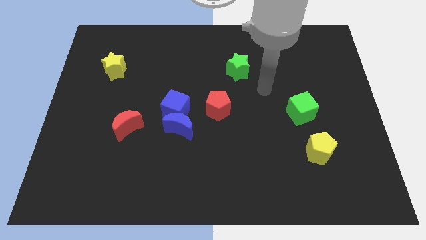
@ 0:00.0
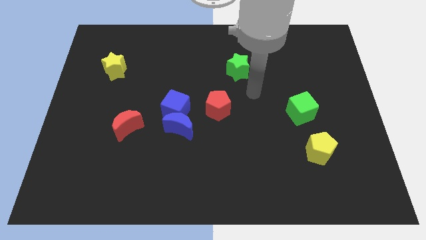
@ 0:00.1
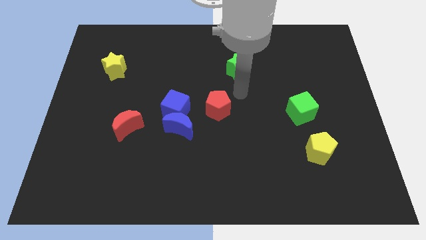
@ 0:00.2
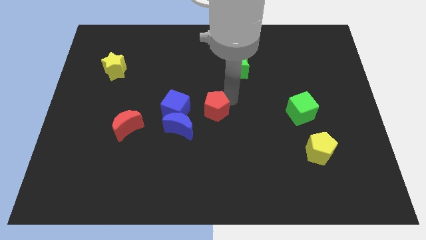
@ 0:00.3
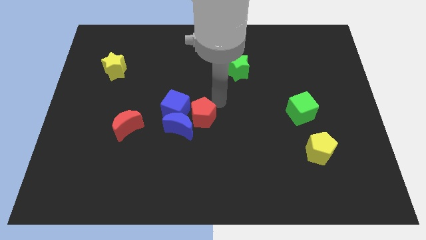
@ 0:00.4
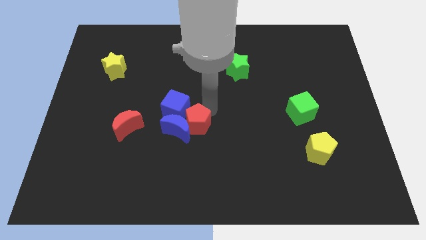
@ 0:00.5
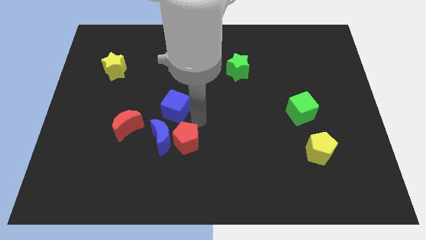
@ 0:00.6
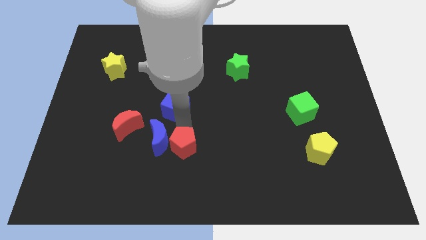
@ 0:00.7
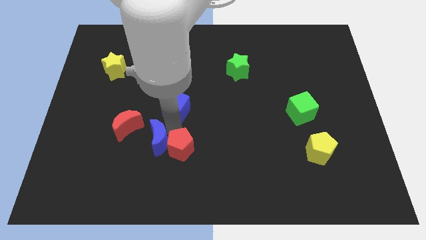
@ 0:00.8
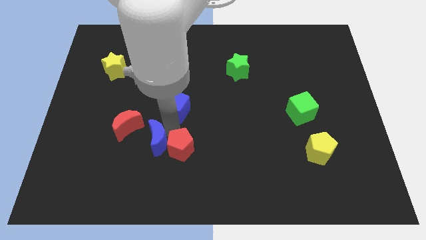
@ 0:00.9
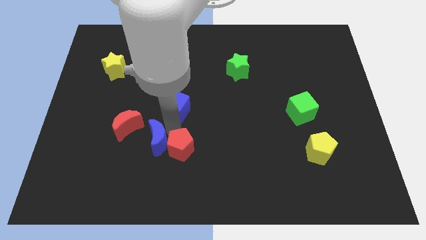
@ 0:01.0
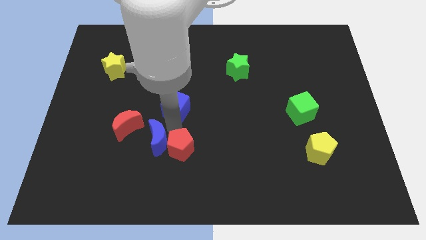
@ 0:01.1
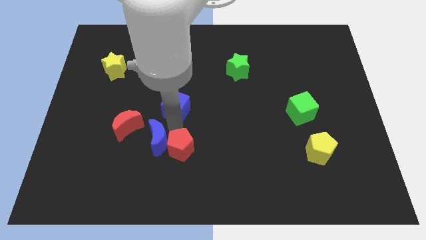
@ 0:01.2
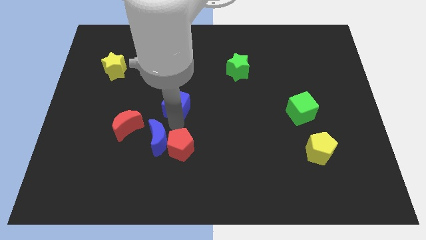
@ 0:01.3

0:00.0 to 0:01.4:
pull the blue cube apart from the blue moon and red pentagon

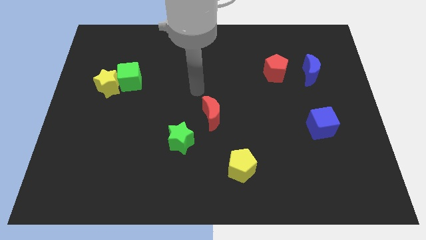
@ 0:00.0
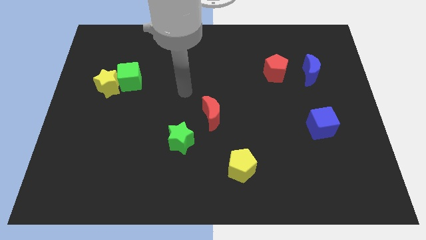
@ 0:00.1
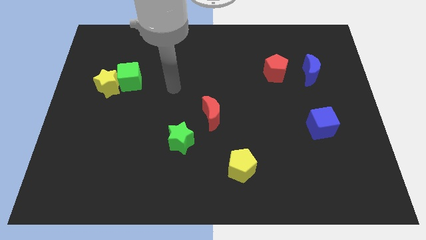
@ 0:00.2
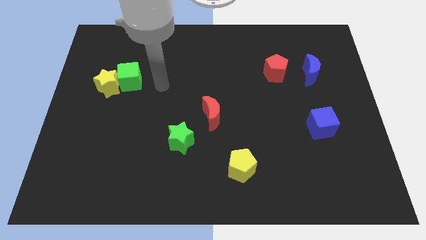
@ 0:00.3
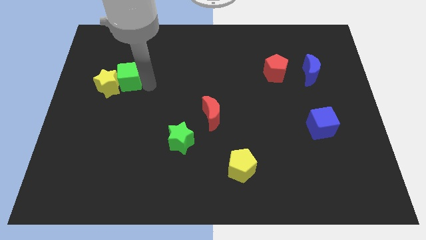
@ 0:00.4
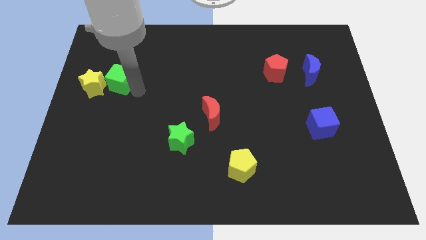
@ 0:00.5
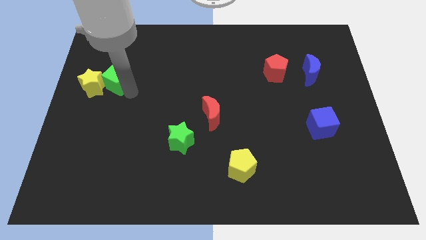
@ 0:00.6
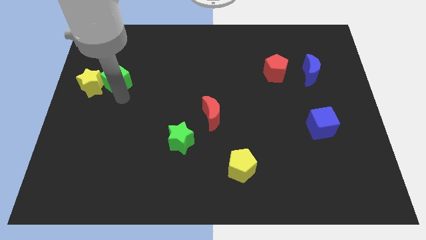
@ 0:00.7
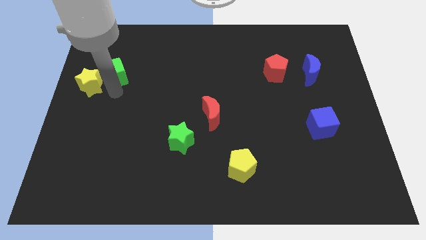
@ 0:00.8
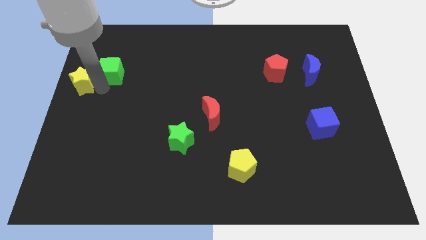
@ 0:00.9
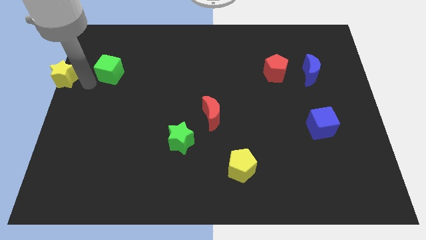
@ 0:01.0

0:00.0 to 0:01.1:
separate the green cube from the yellow star

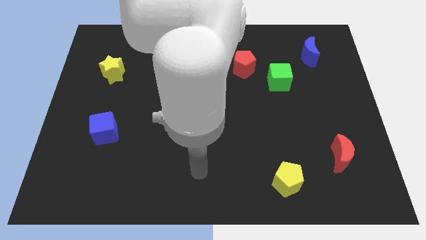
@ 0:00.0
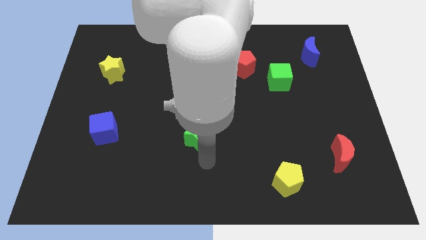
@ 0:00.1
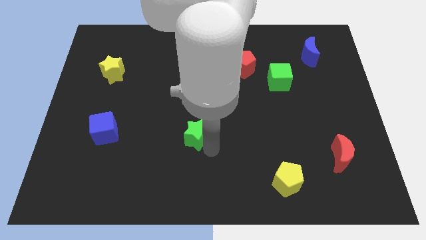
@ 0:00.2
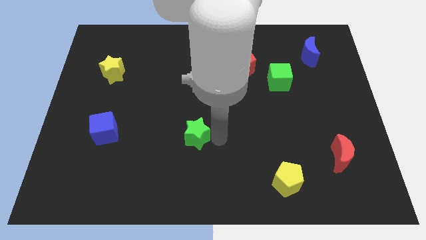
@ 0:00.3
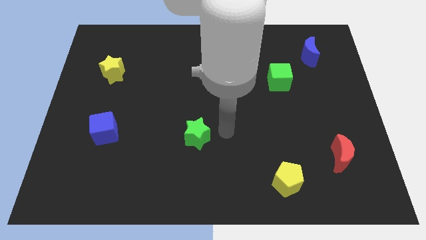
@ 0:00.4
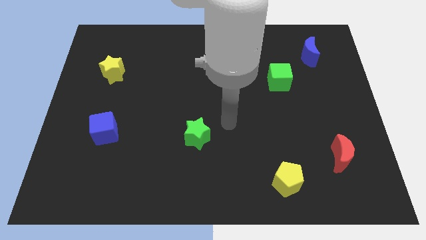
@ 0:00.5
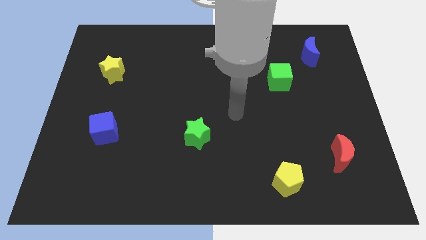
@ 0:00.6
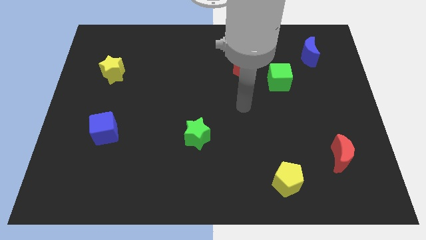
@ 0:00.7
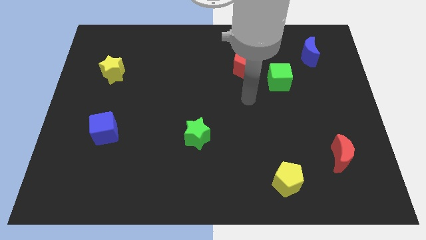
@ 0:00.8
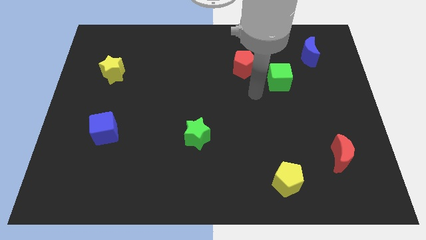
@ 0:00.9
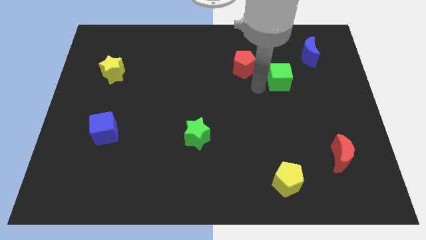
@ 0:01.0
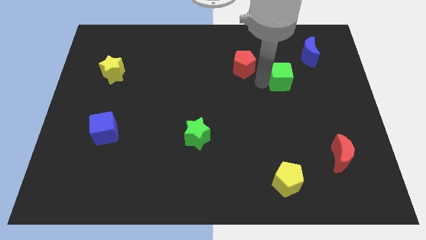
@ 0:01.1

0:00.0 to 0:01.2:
separate the red pentagon from the green cube

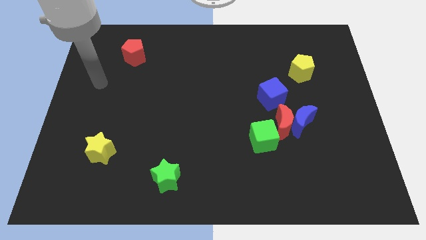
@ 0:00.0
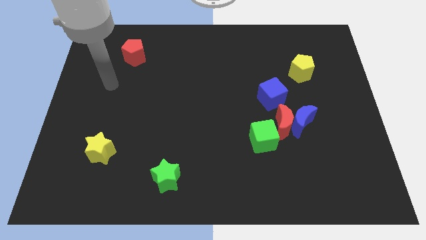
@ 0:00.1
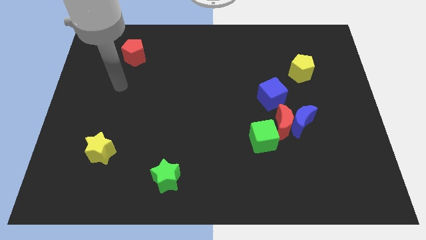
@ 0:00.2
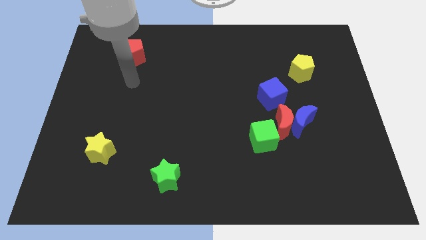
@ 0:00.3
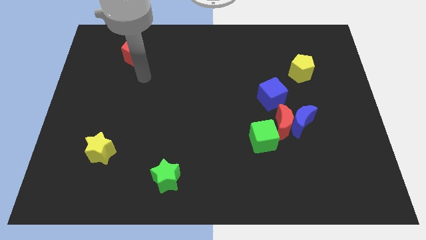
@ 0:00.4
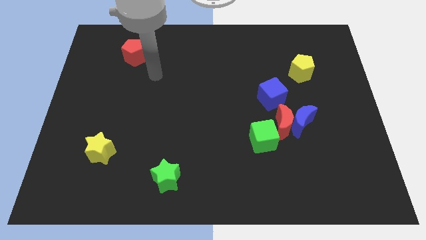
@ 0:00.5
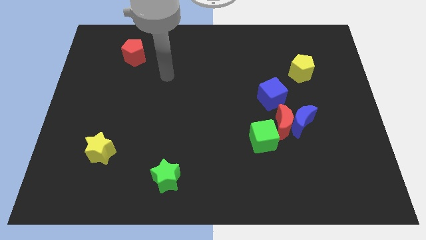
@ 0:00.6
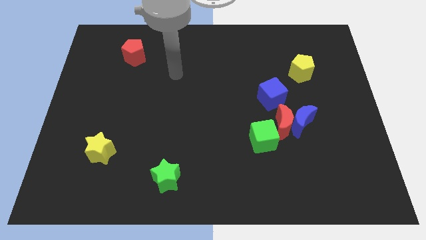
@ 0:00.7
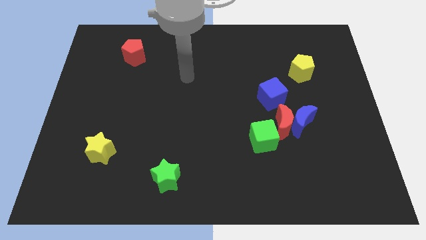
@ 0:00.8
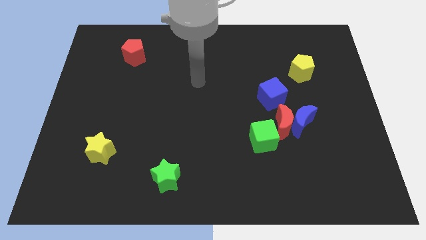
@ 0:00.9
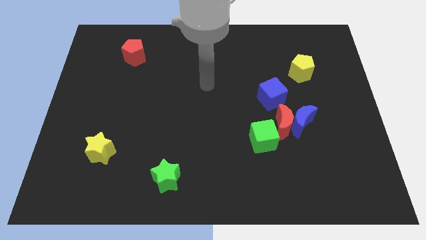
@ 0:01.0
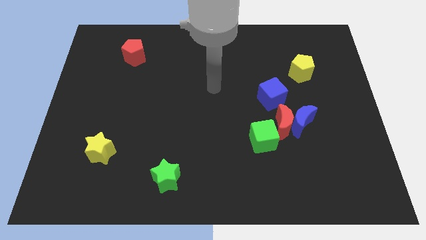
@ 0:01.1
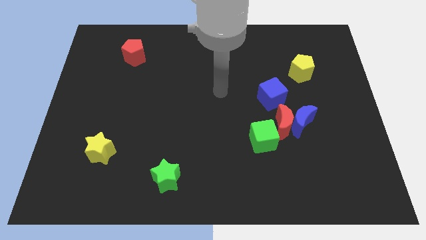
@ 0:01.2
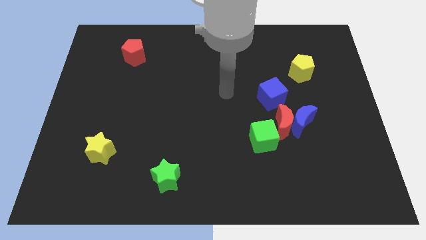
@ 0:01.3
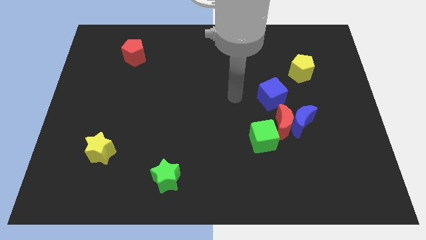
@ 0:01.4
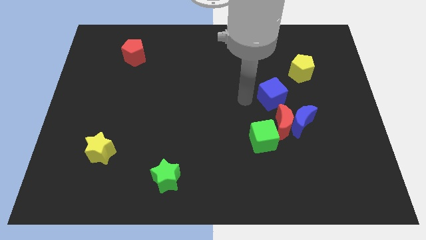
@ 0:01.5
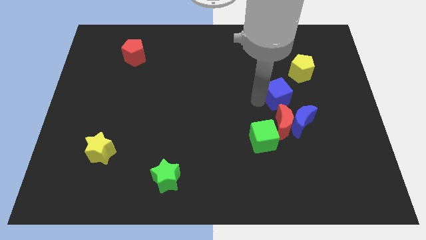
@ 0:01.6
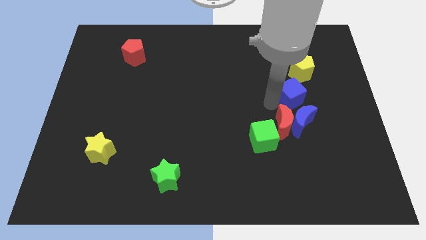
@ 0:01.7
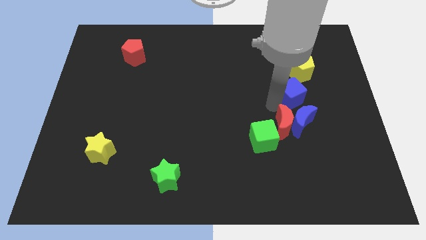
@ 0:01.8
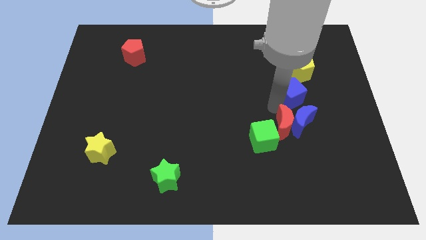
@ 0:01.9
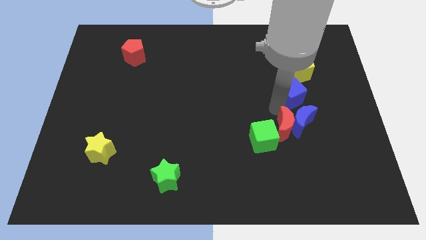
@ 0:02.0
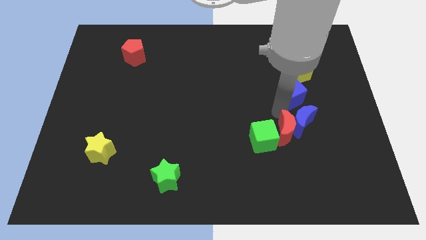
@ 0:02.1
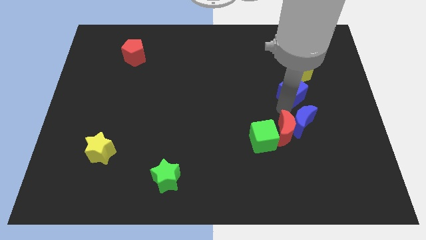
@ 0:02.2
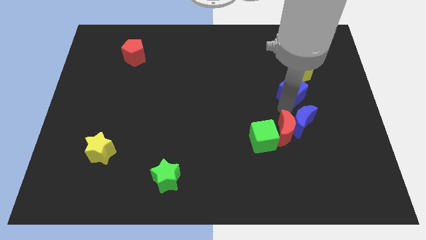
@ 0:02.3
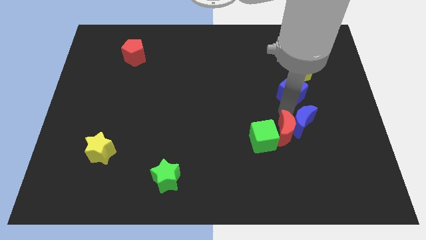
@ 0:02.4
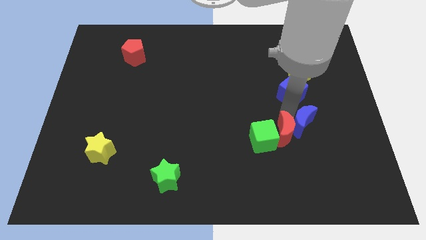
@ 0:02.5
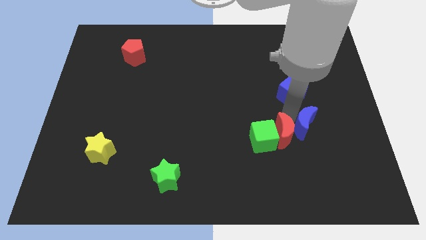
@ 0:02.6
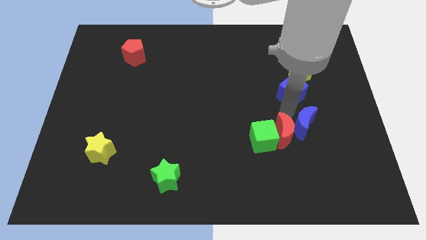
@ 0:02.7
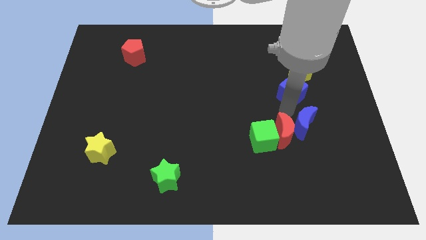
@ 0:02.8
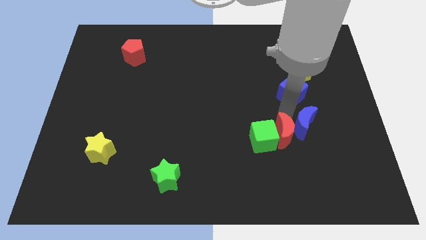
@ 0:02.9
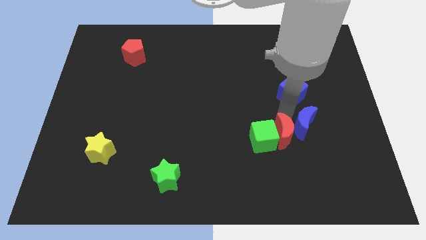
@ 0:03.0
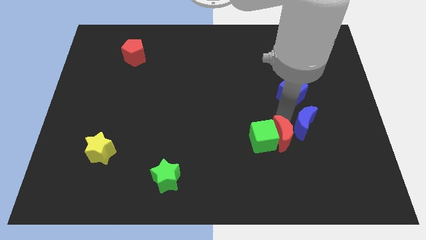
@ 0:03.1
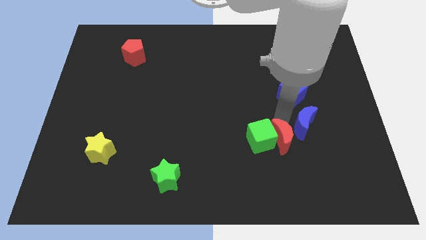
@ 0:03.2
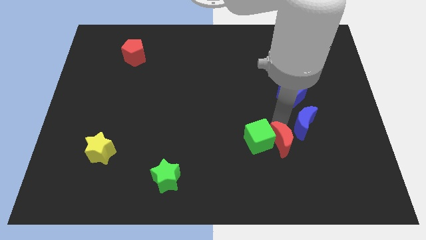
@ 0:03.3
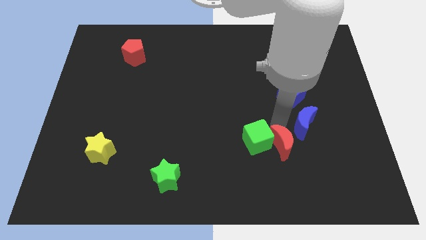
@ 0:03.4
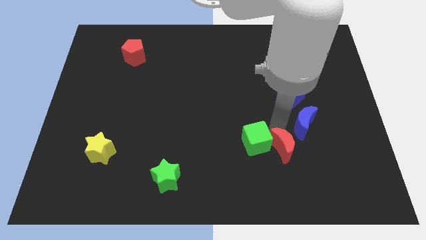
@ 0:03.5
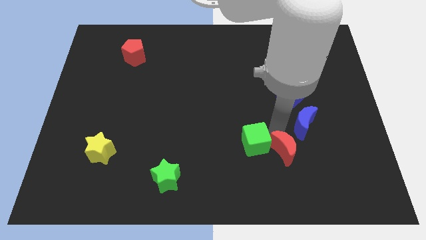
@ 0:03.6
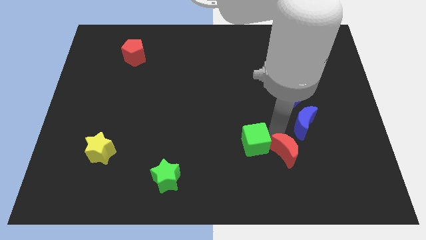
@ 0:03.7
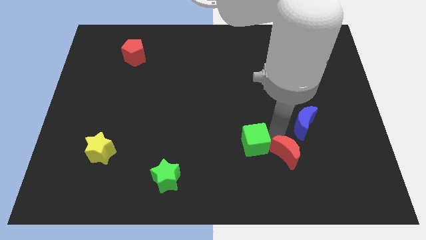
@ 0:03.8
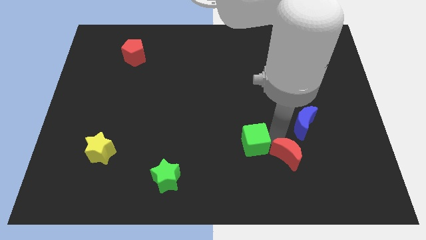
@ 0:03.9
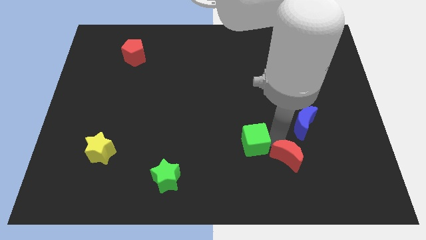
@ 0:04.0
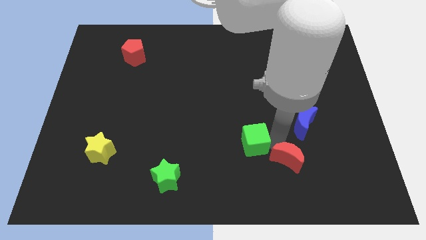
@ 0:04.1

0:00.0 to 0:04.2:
separate the red moon from the group of blocks

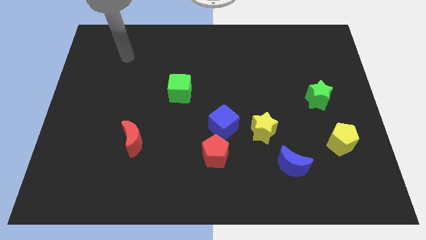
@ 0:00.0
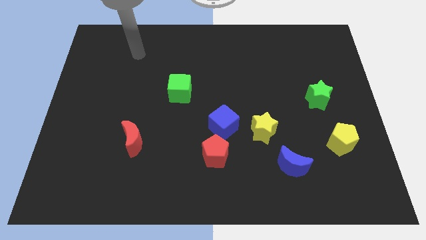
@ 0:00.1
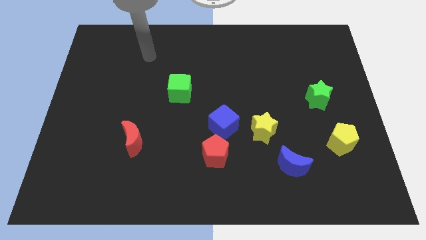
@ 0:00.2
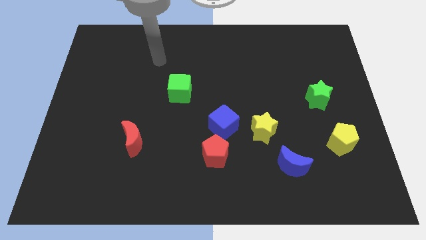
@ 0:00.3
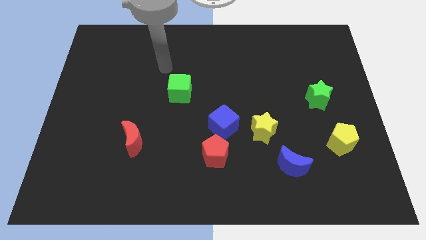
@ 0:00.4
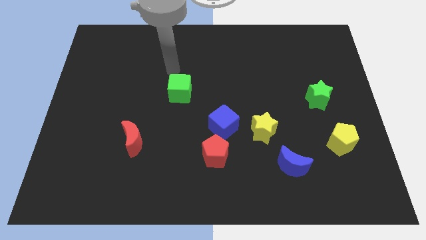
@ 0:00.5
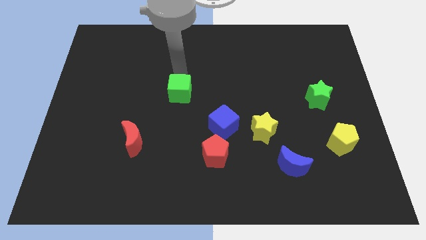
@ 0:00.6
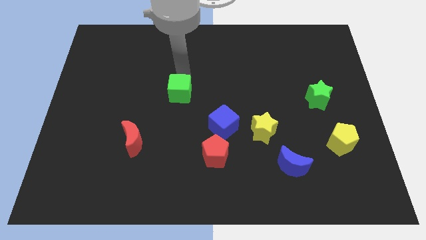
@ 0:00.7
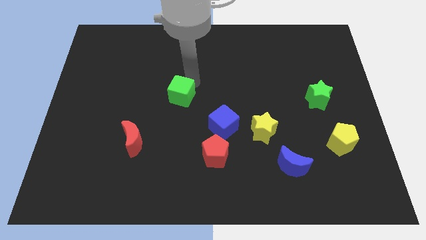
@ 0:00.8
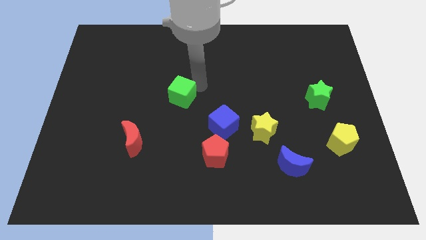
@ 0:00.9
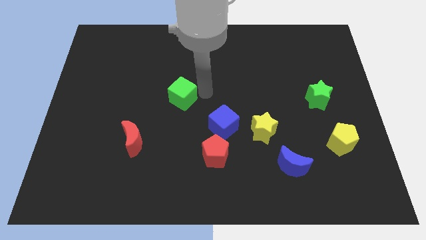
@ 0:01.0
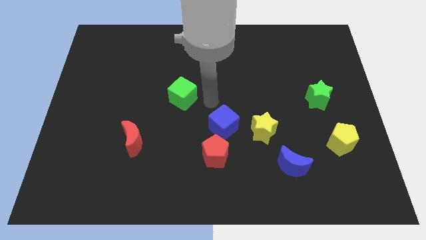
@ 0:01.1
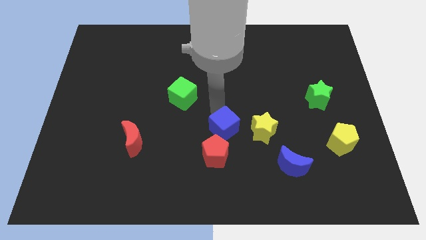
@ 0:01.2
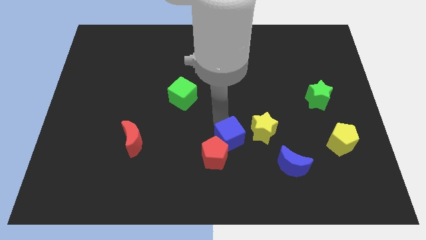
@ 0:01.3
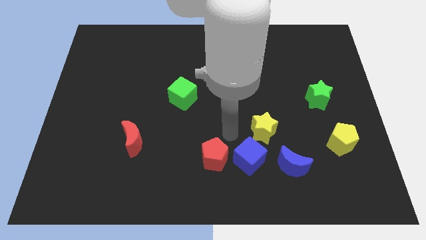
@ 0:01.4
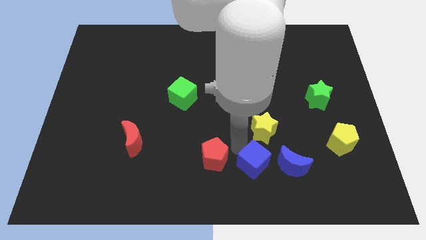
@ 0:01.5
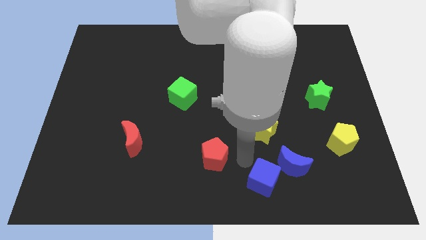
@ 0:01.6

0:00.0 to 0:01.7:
separate the red pentagon from the blue cube
